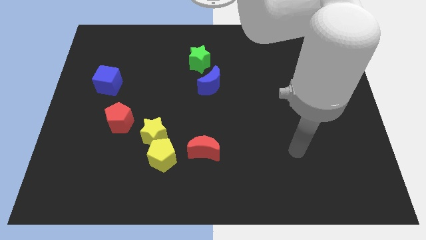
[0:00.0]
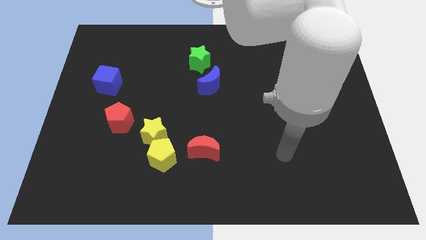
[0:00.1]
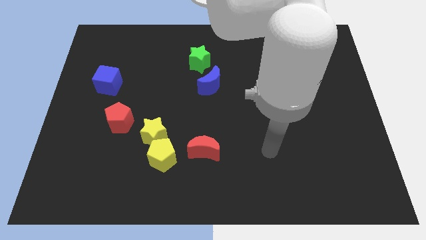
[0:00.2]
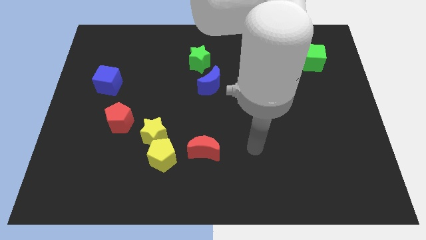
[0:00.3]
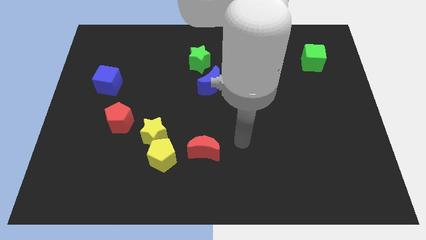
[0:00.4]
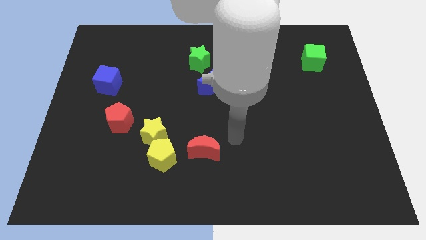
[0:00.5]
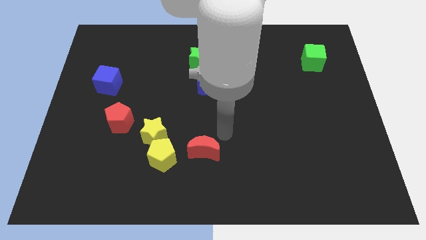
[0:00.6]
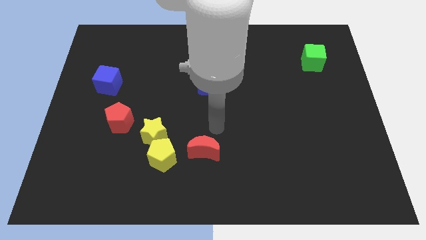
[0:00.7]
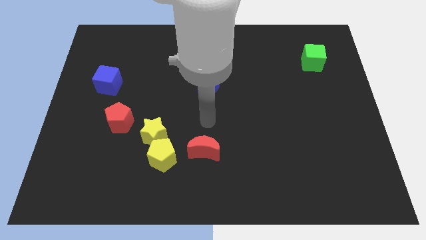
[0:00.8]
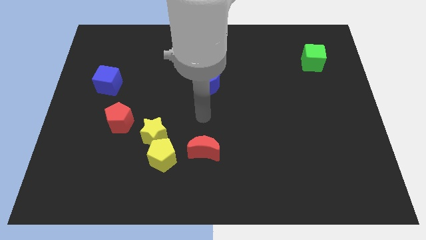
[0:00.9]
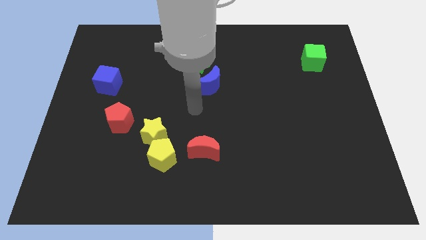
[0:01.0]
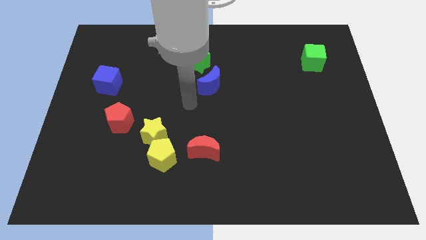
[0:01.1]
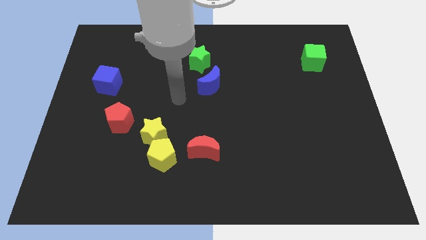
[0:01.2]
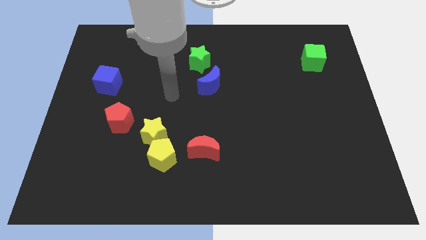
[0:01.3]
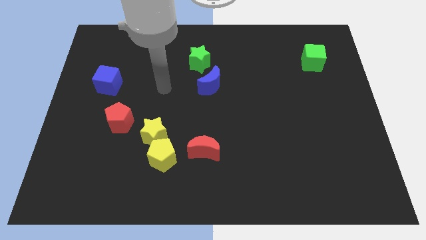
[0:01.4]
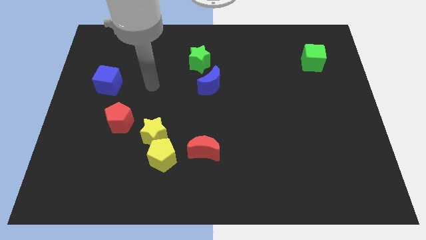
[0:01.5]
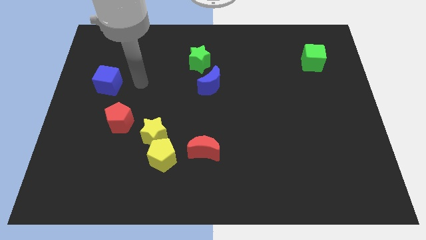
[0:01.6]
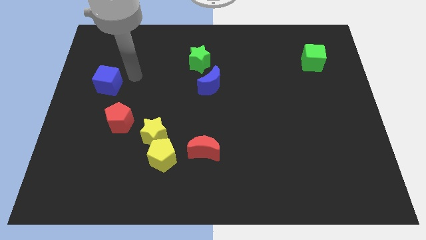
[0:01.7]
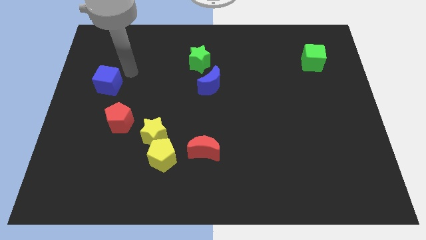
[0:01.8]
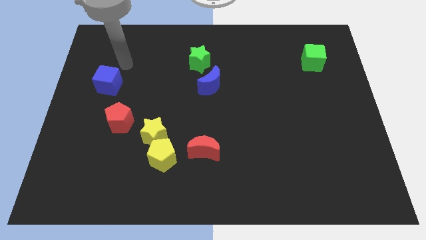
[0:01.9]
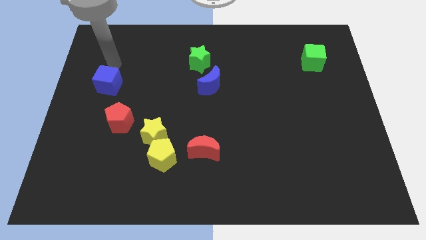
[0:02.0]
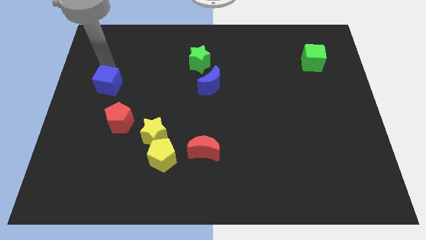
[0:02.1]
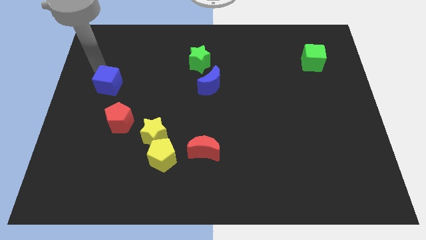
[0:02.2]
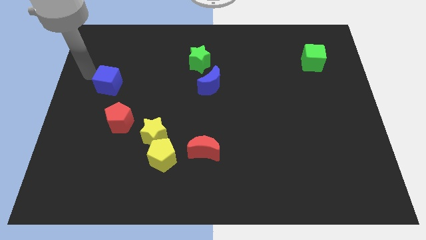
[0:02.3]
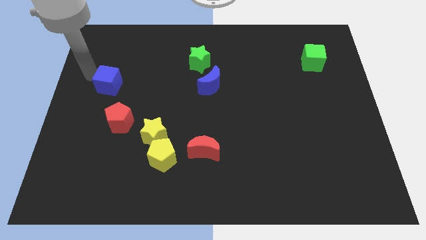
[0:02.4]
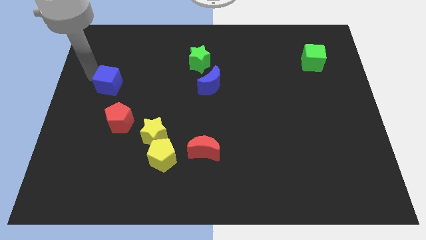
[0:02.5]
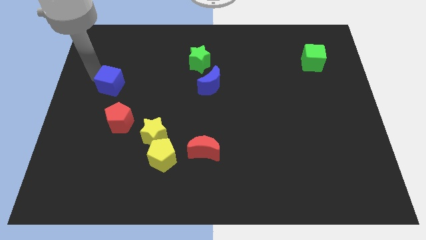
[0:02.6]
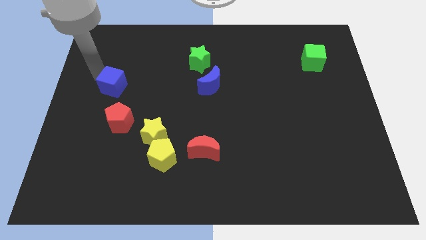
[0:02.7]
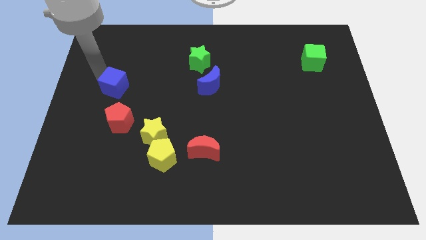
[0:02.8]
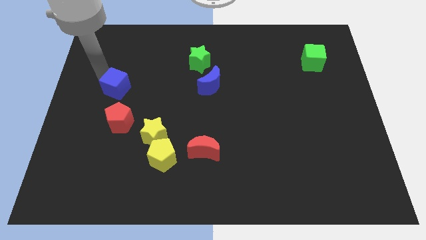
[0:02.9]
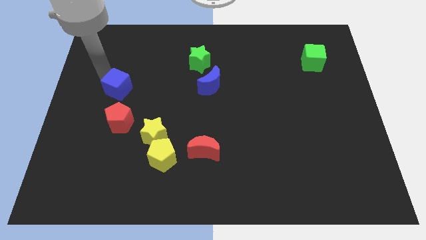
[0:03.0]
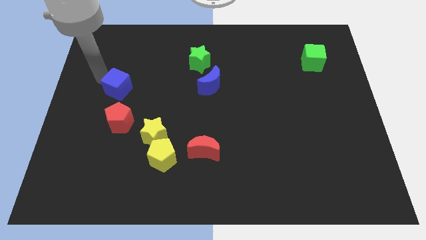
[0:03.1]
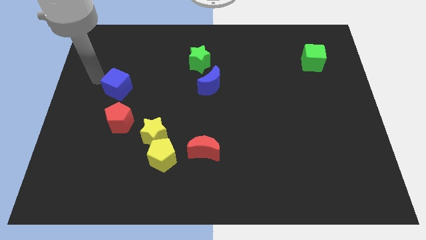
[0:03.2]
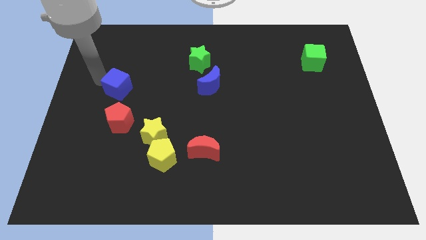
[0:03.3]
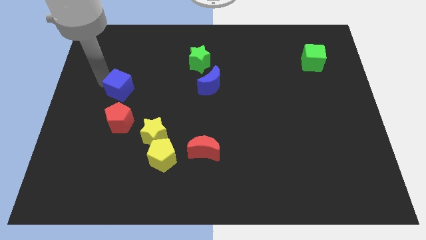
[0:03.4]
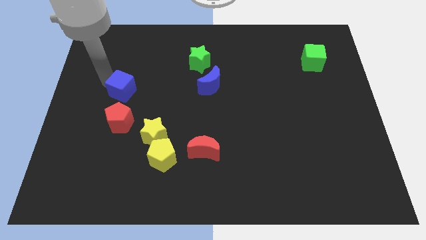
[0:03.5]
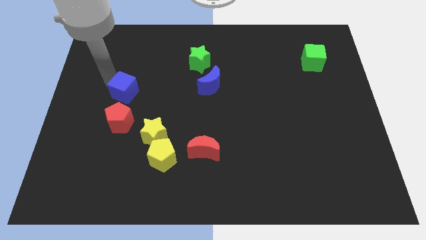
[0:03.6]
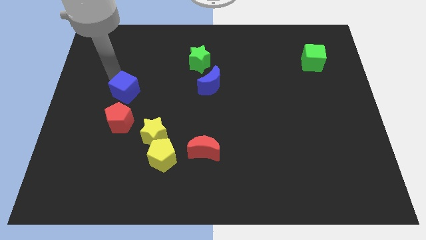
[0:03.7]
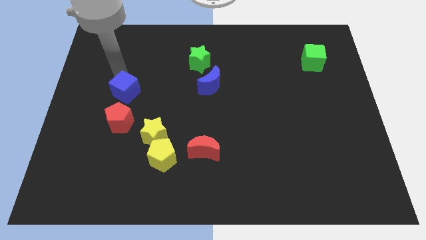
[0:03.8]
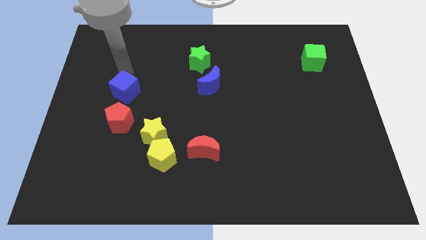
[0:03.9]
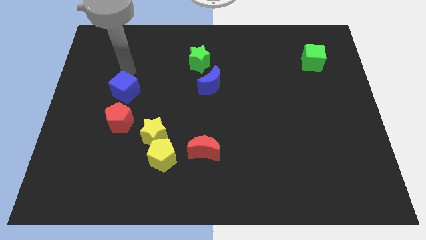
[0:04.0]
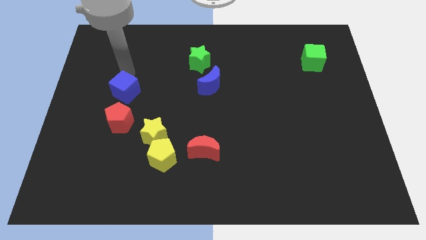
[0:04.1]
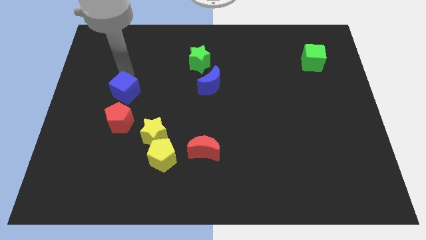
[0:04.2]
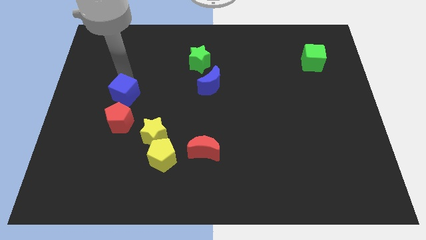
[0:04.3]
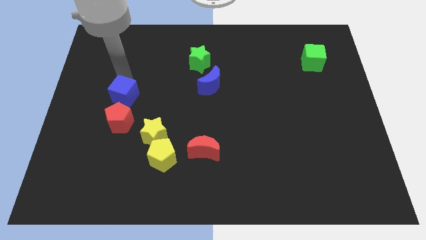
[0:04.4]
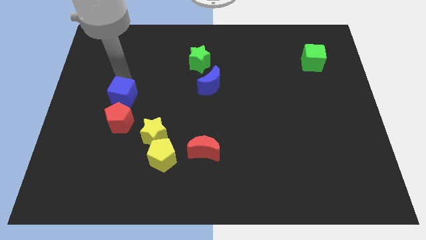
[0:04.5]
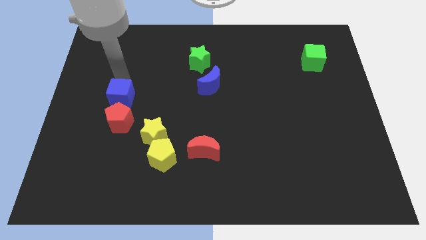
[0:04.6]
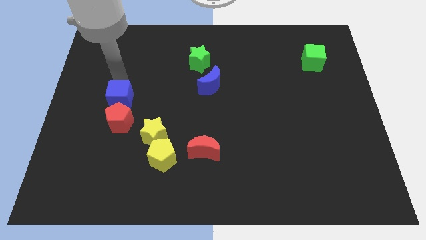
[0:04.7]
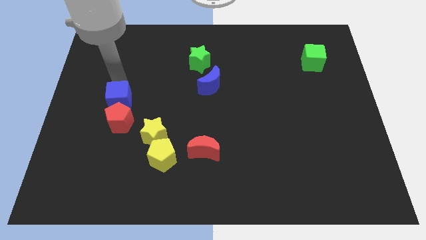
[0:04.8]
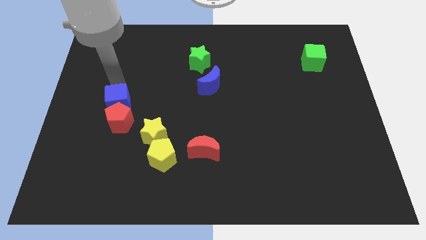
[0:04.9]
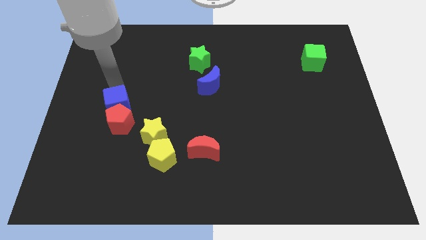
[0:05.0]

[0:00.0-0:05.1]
move the blue cube diagonally up and to the left of the yellow star

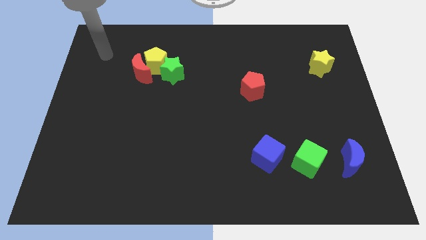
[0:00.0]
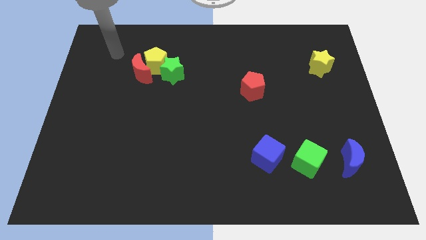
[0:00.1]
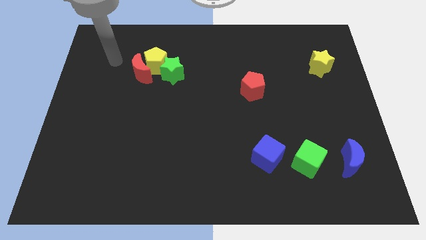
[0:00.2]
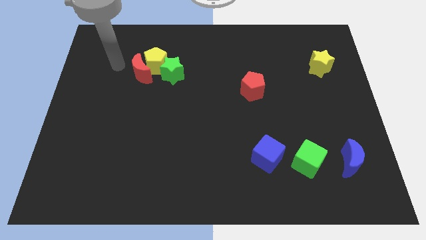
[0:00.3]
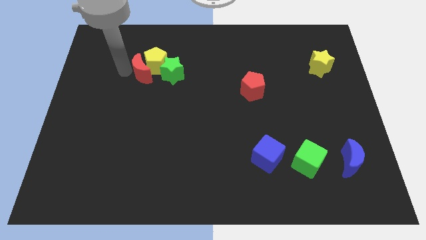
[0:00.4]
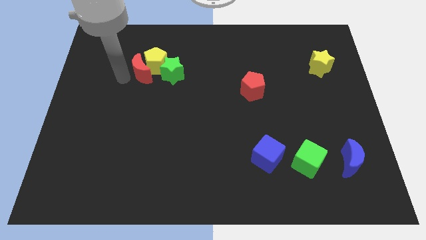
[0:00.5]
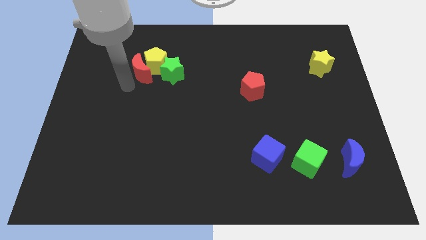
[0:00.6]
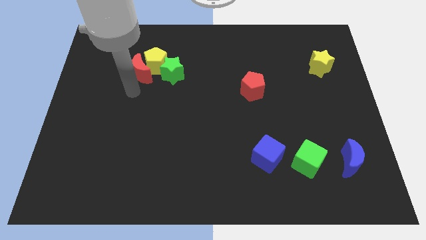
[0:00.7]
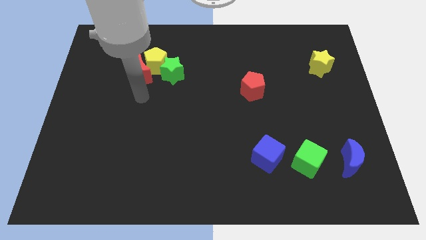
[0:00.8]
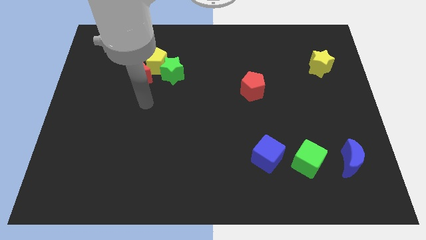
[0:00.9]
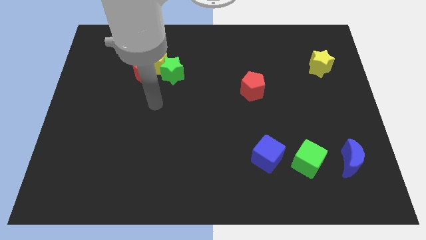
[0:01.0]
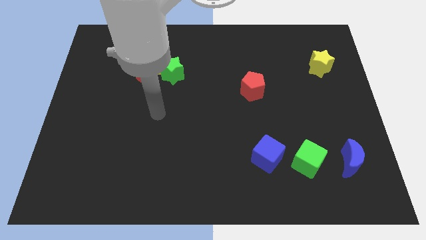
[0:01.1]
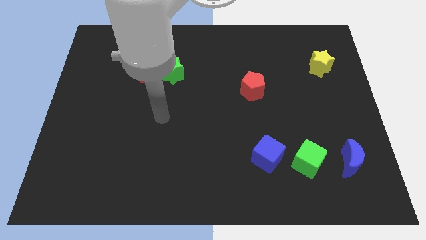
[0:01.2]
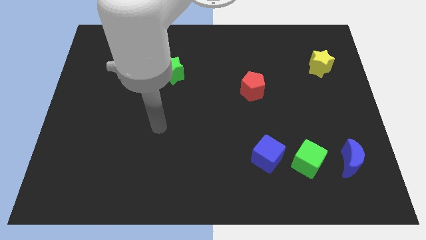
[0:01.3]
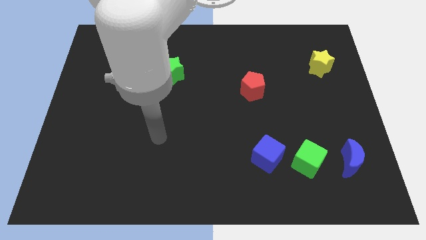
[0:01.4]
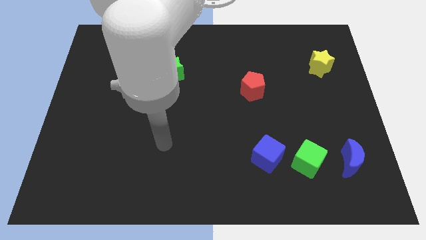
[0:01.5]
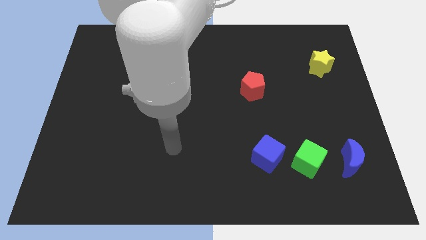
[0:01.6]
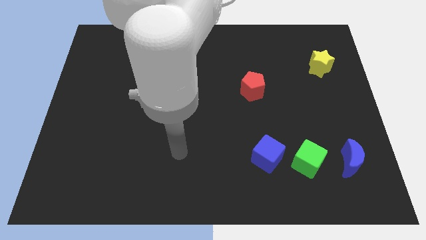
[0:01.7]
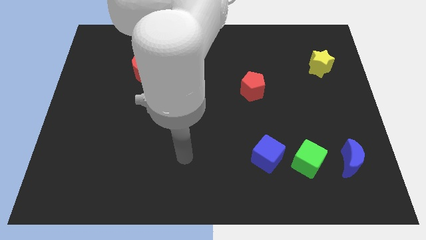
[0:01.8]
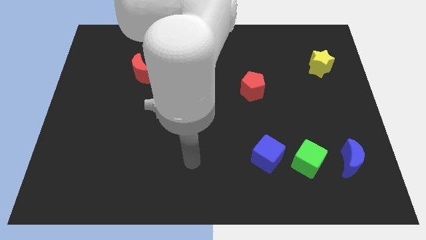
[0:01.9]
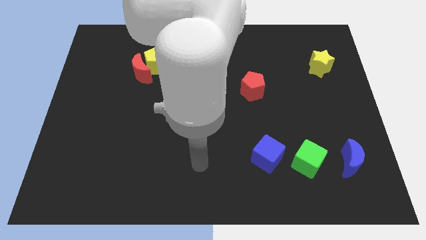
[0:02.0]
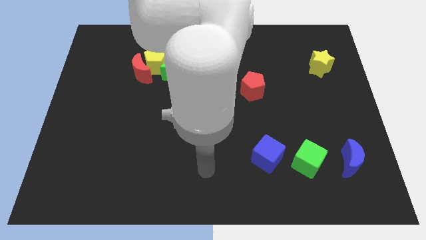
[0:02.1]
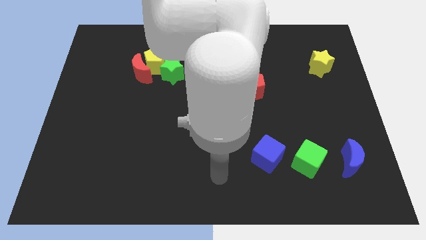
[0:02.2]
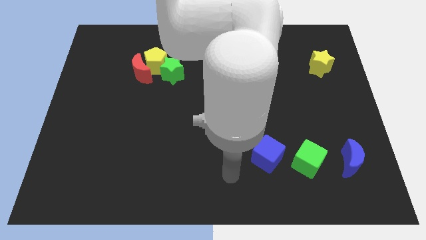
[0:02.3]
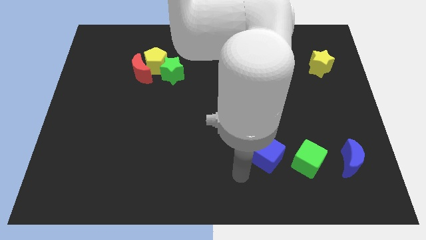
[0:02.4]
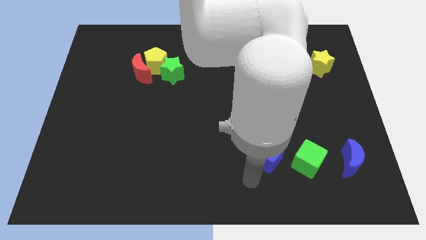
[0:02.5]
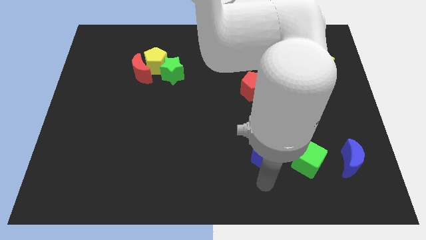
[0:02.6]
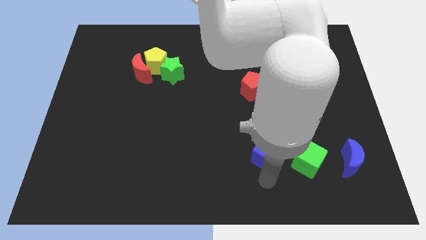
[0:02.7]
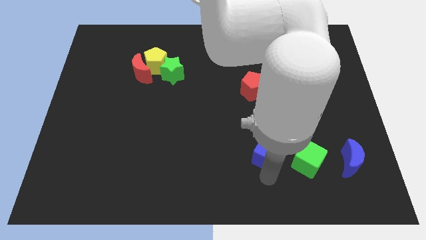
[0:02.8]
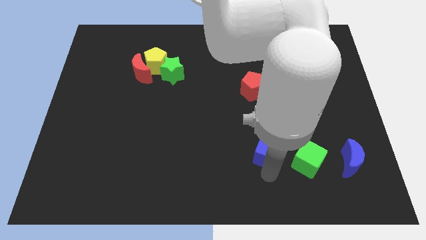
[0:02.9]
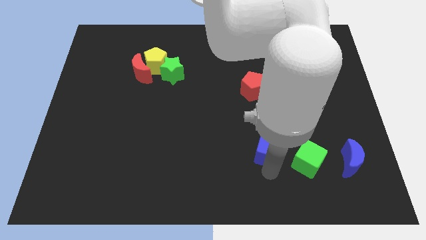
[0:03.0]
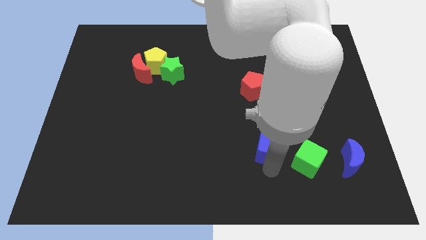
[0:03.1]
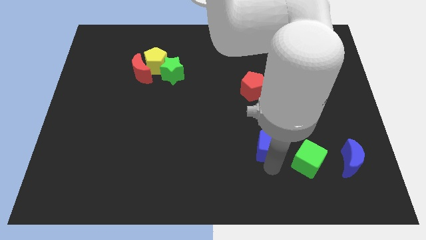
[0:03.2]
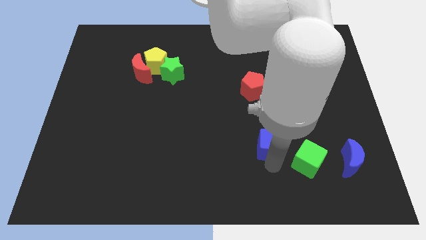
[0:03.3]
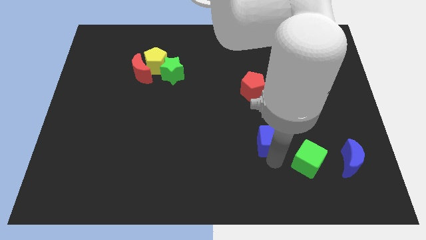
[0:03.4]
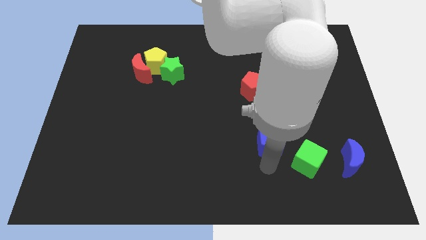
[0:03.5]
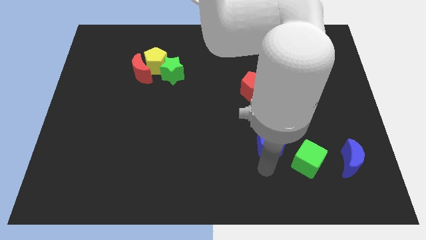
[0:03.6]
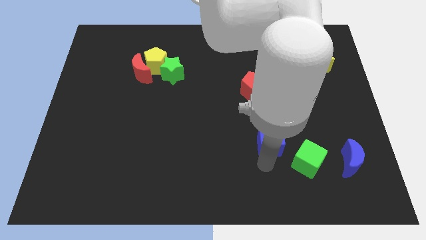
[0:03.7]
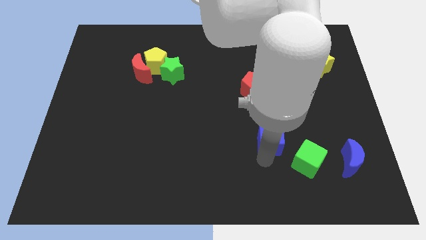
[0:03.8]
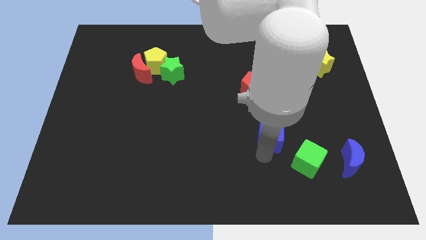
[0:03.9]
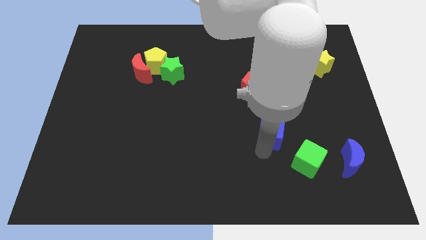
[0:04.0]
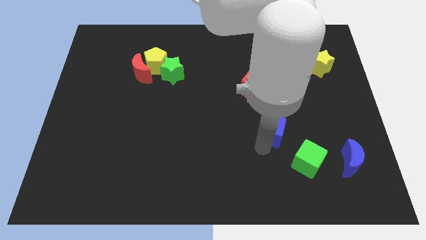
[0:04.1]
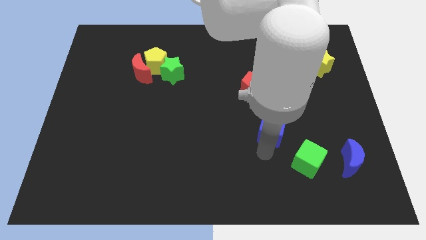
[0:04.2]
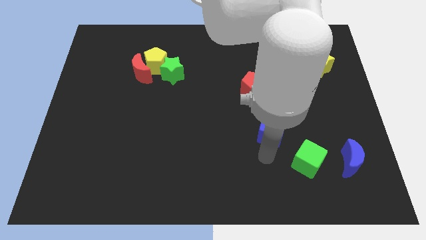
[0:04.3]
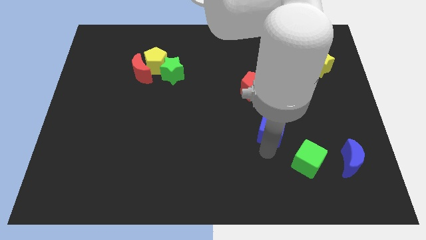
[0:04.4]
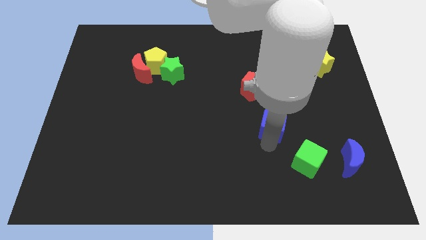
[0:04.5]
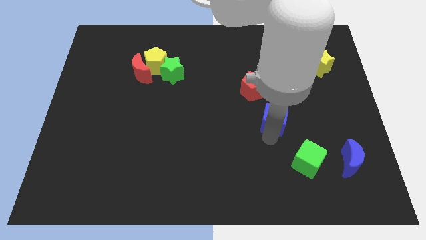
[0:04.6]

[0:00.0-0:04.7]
put the blue cube to the bottom right of the red pentagon
